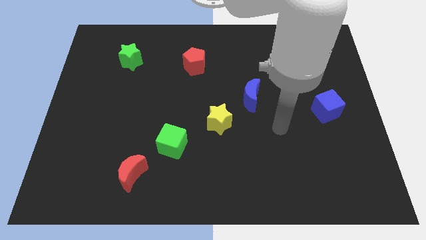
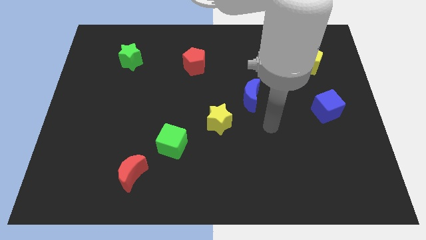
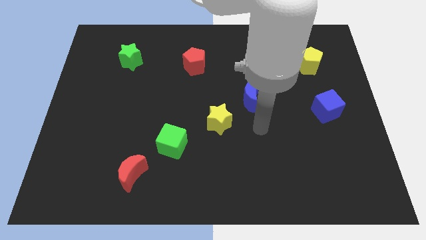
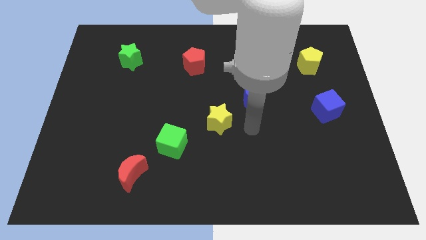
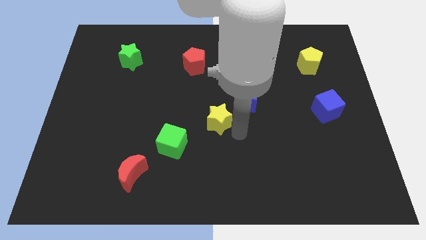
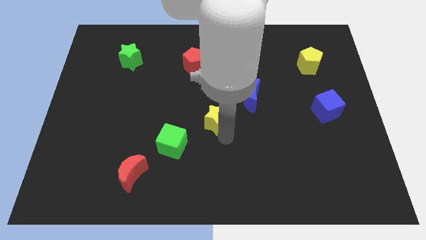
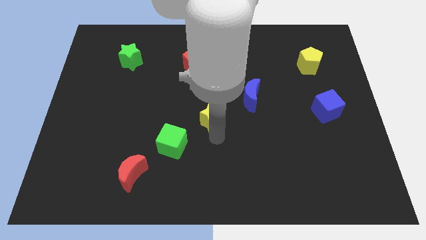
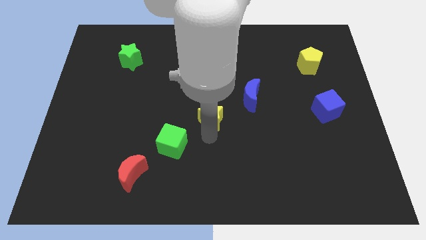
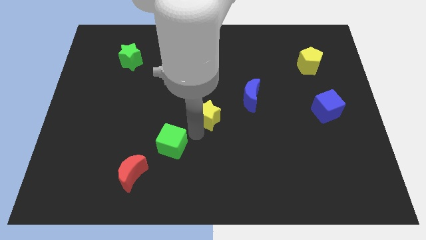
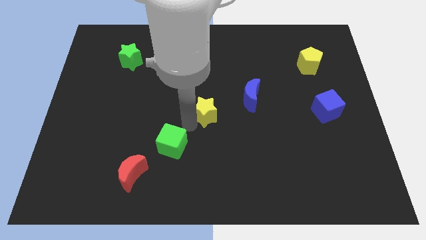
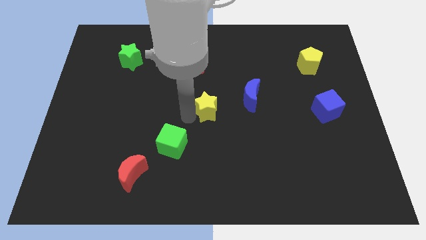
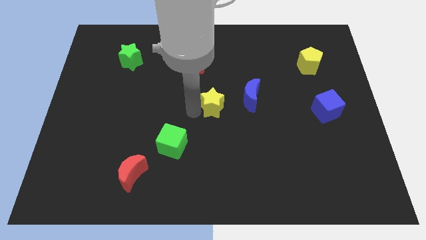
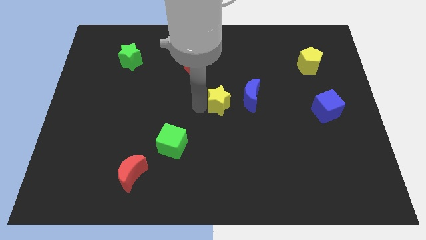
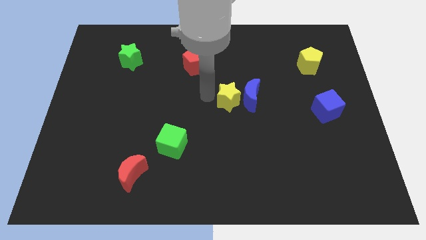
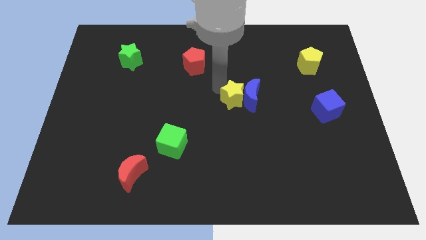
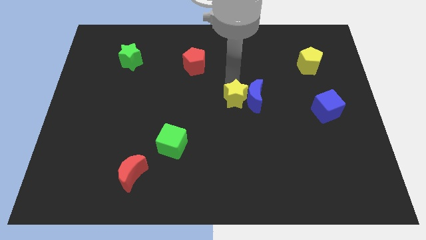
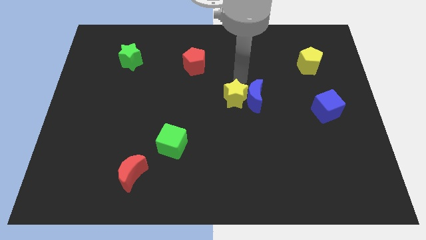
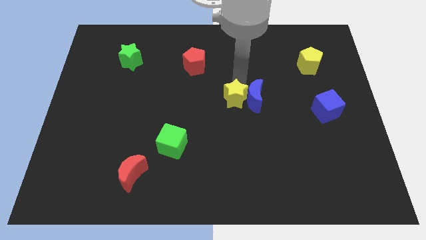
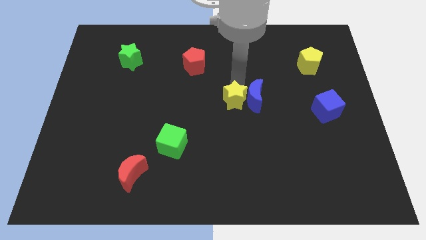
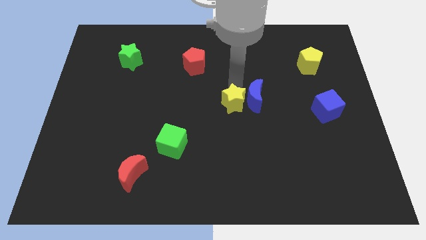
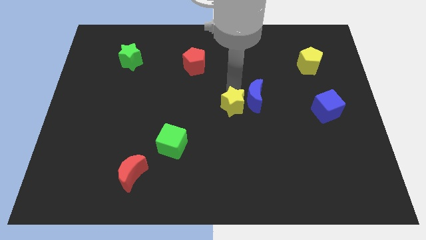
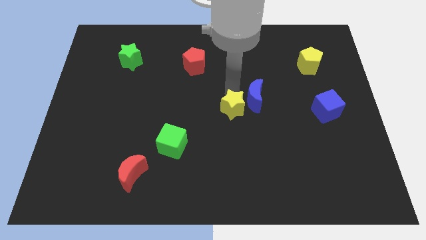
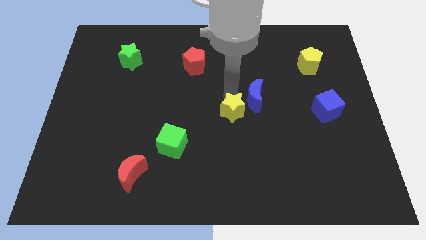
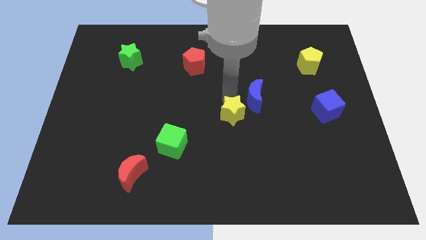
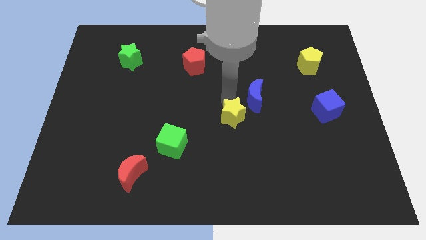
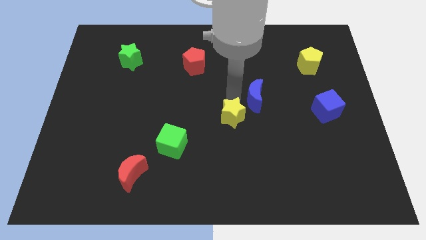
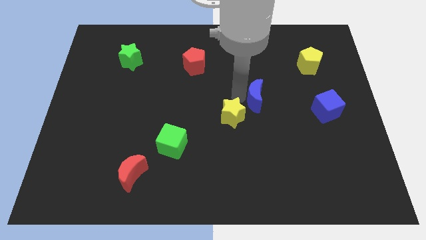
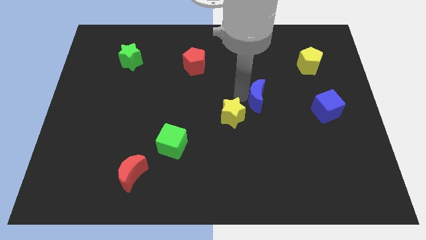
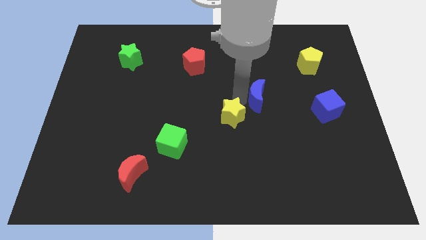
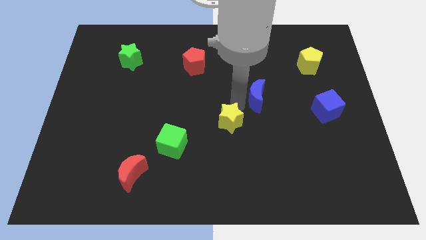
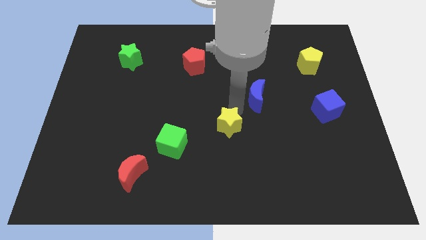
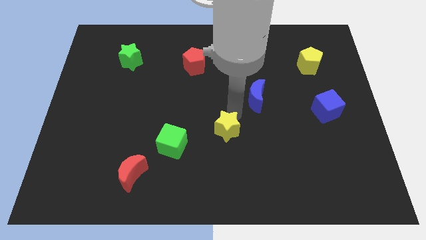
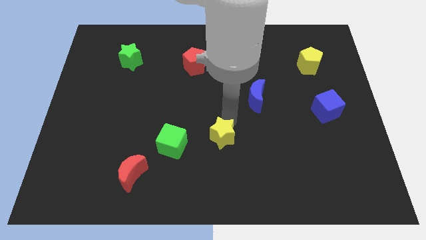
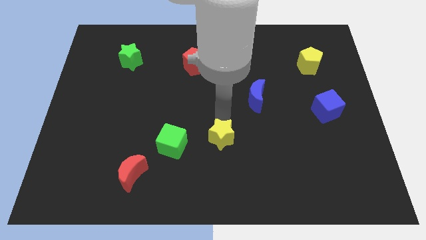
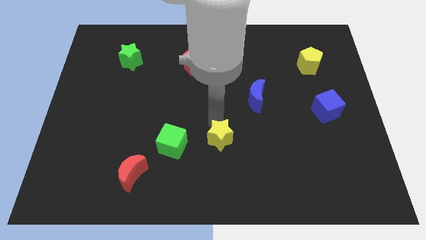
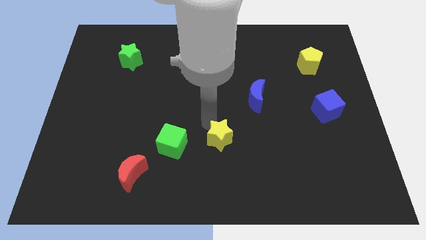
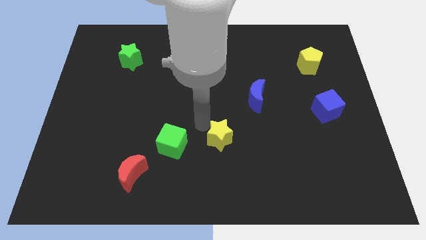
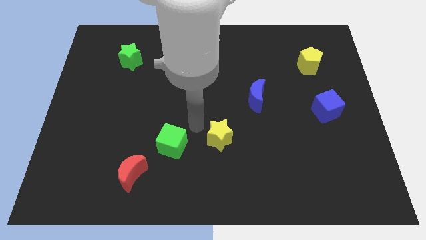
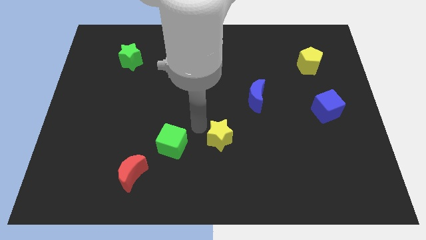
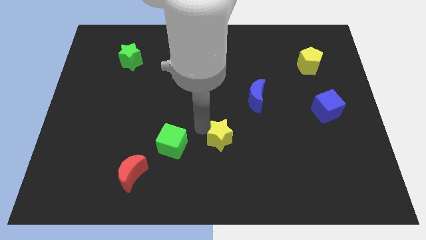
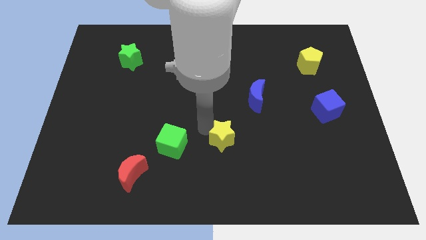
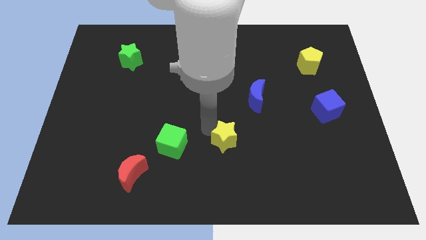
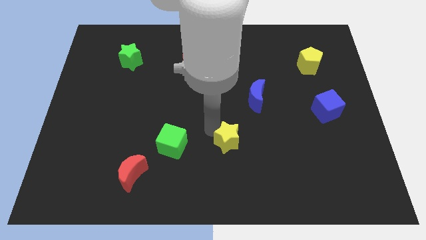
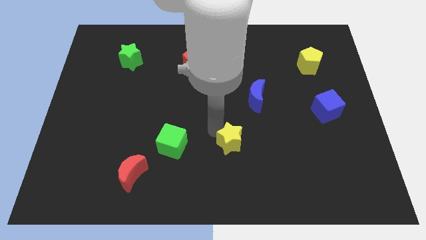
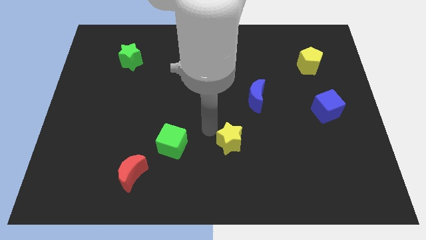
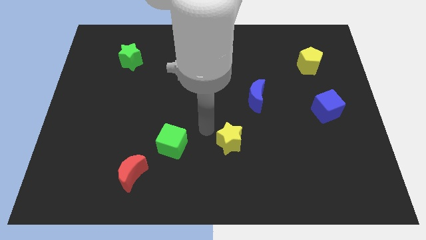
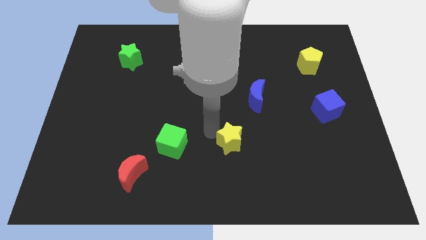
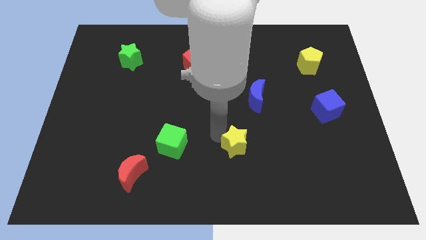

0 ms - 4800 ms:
move the yellow star down and then right slightly

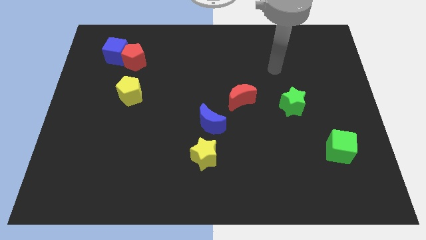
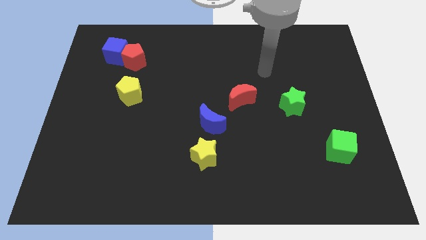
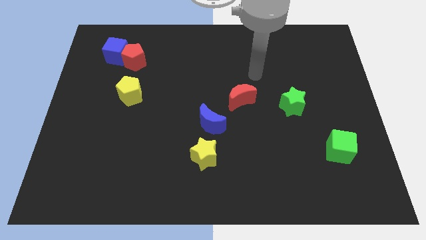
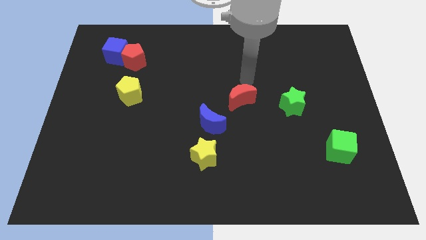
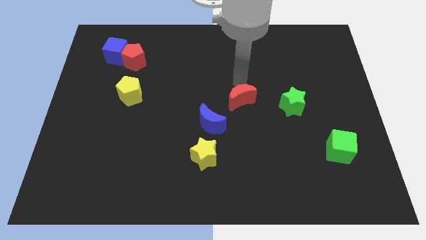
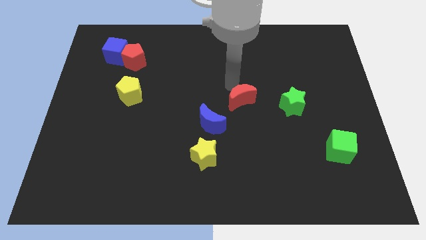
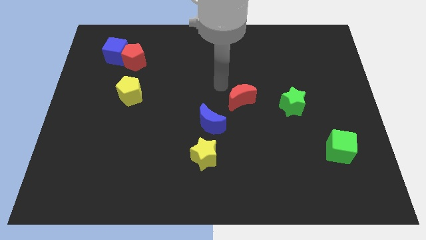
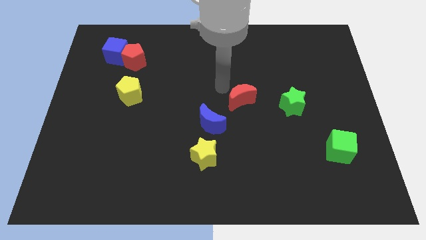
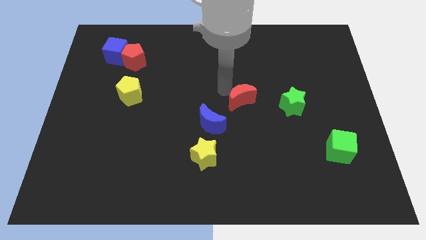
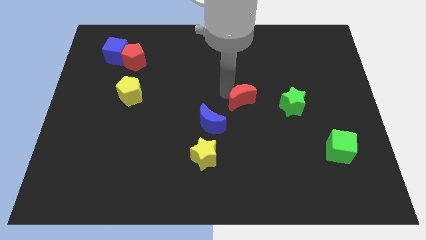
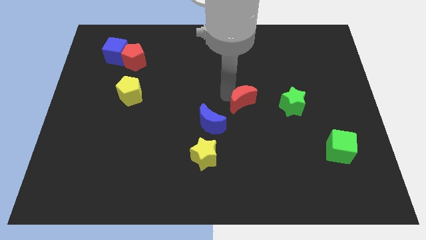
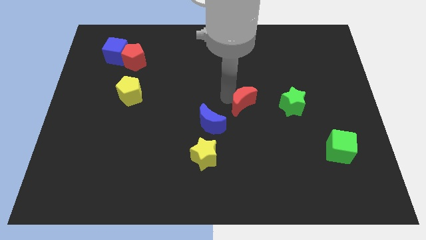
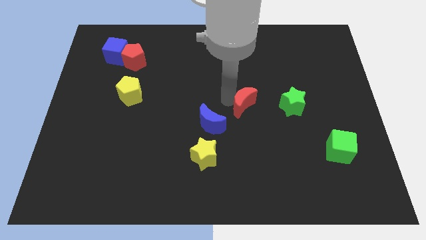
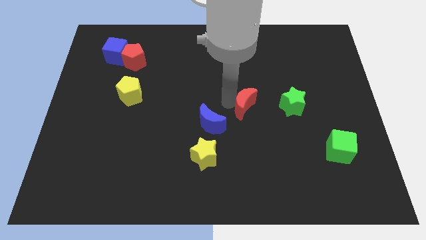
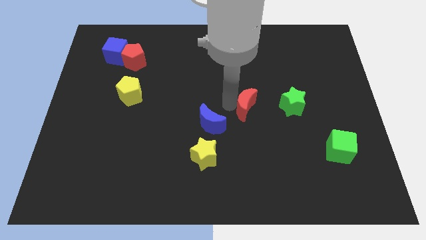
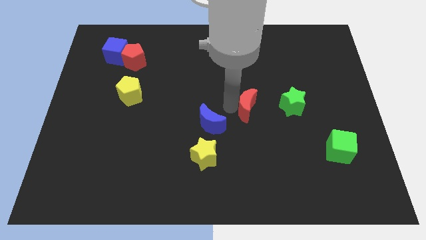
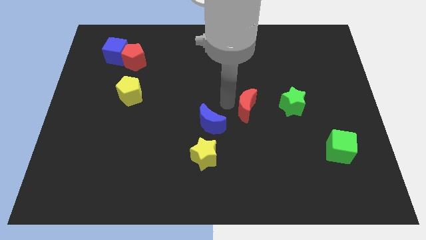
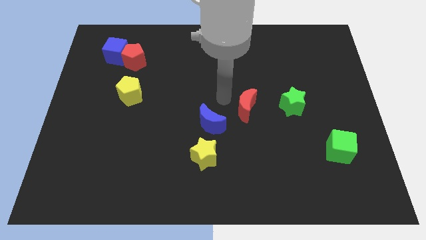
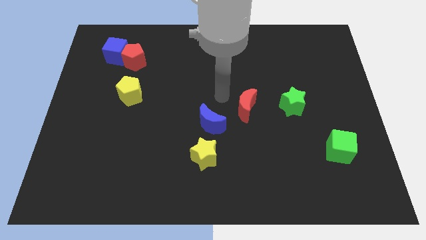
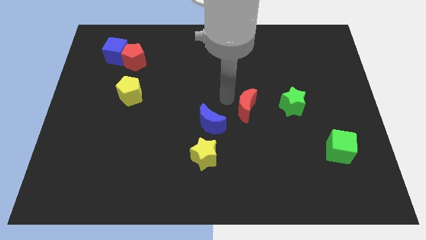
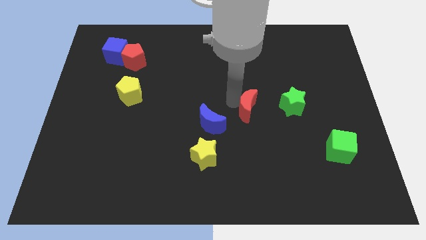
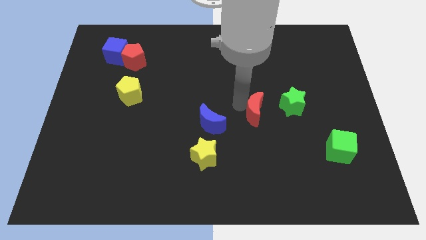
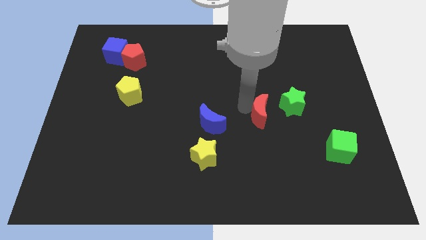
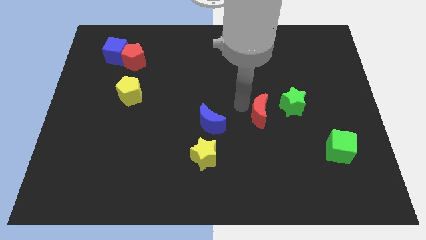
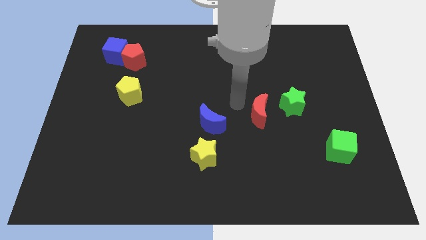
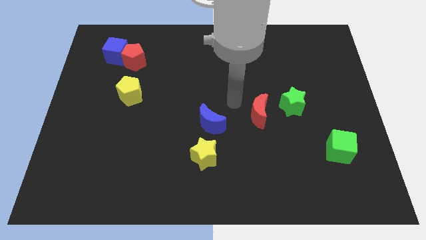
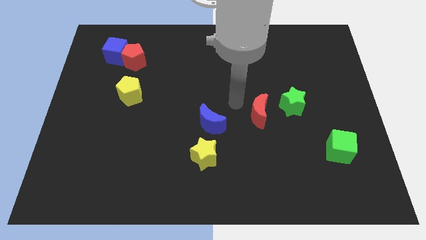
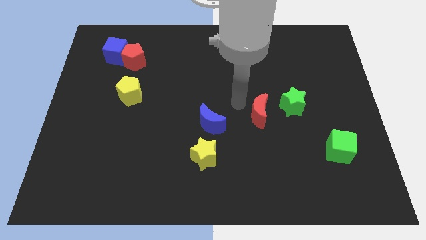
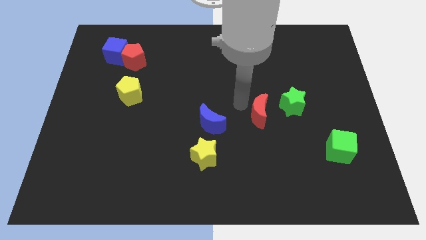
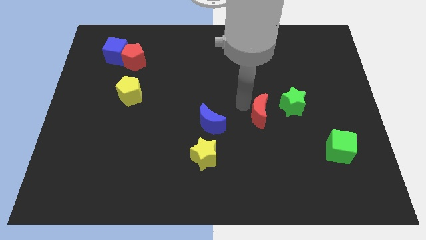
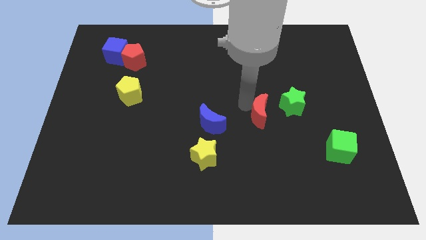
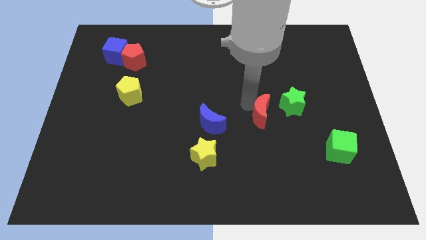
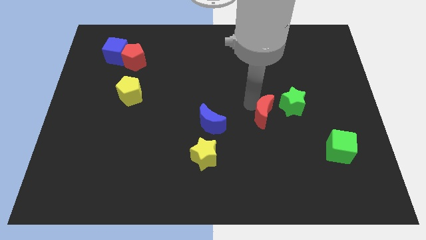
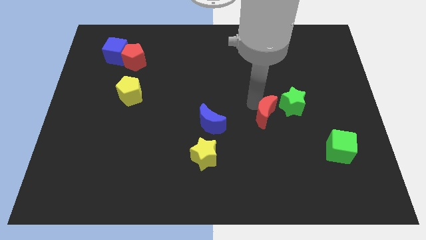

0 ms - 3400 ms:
move the red moon somewhat down and right diagonally
